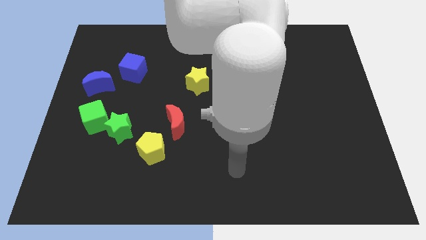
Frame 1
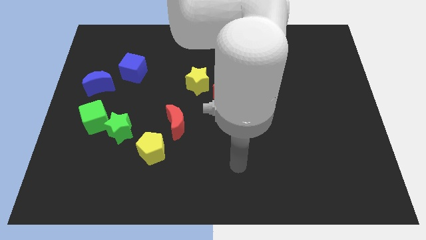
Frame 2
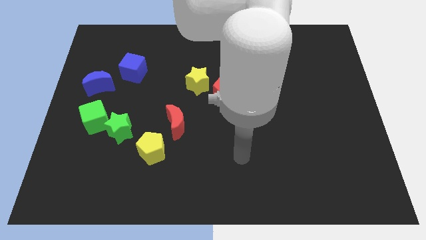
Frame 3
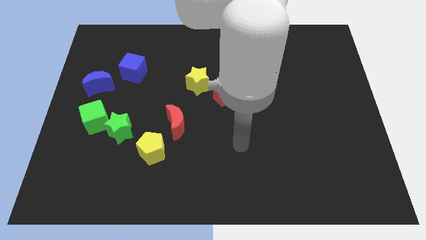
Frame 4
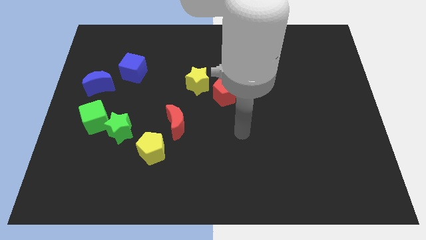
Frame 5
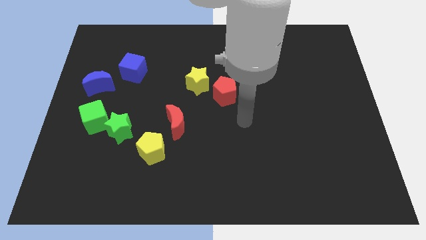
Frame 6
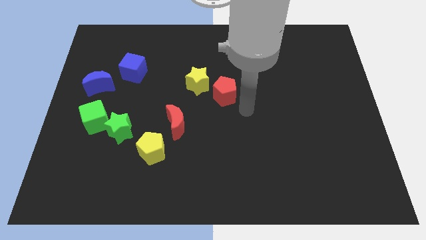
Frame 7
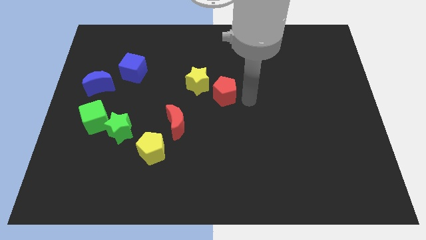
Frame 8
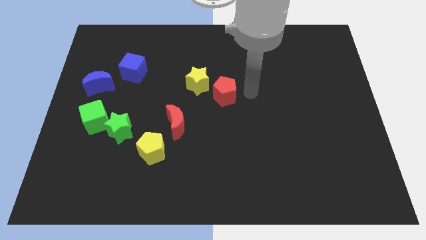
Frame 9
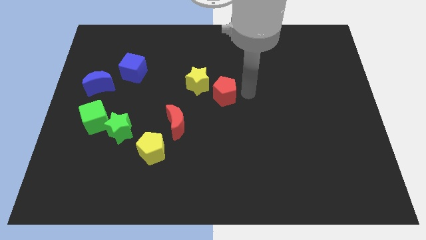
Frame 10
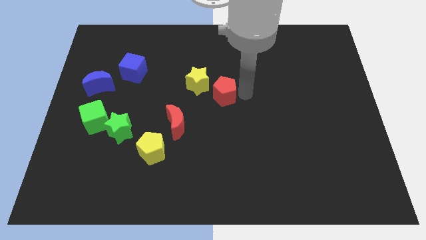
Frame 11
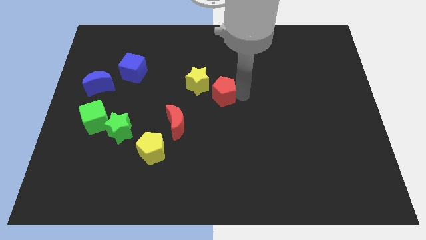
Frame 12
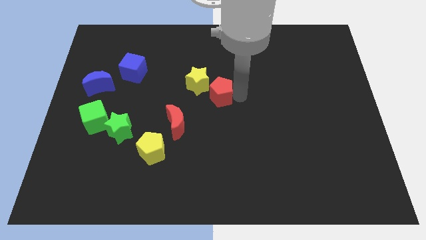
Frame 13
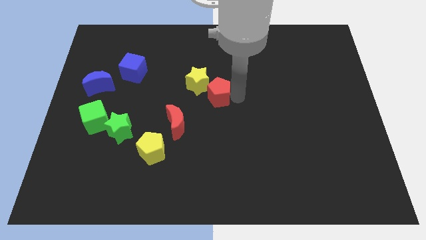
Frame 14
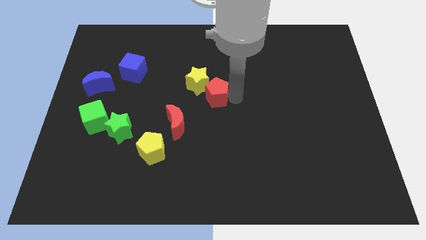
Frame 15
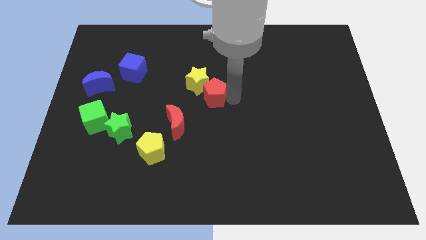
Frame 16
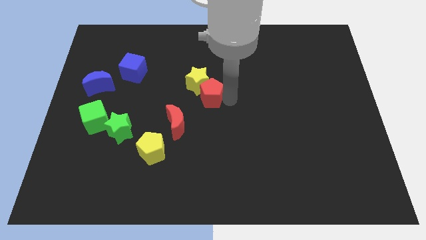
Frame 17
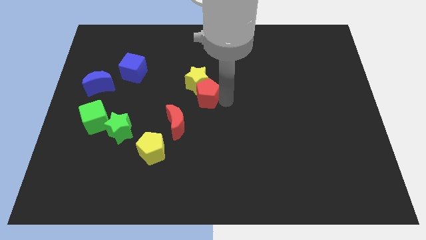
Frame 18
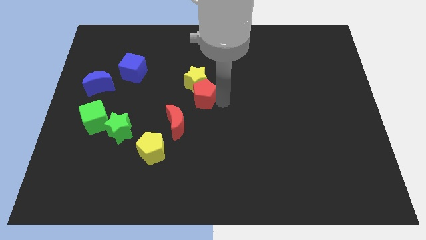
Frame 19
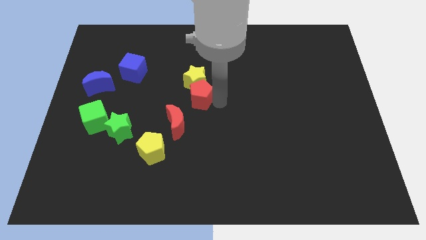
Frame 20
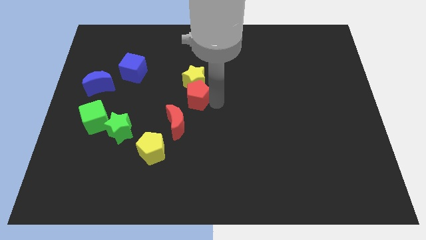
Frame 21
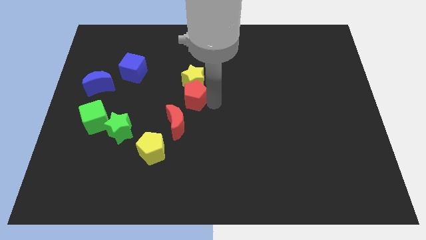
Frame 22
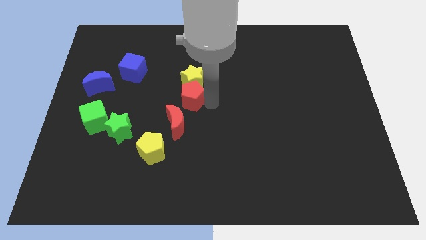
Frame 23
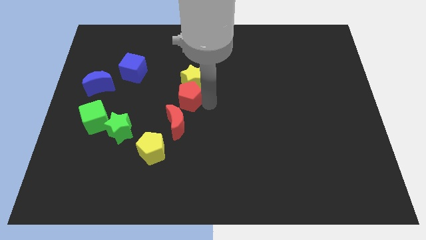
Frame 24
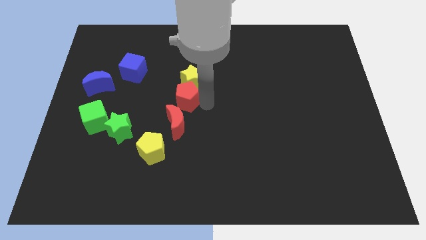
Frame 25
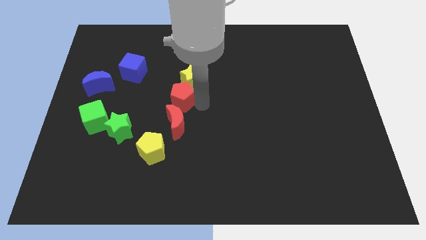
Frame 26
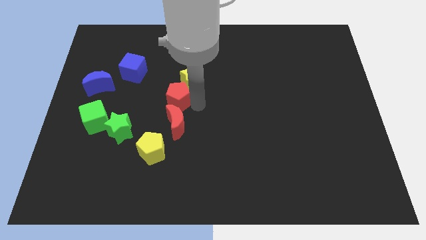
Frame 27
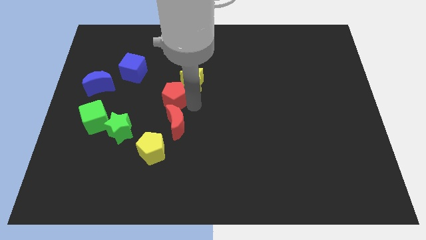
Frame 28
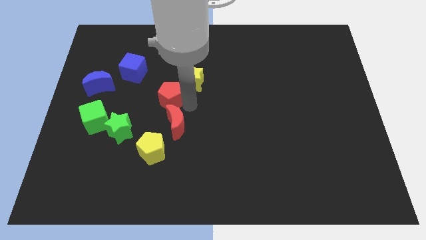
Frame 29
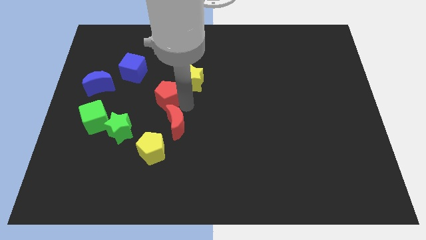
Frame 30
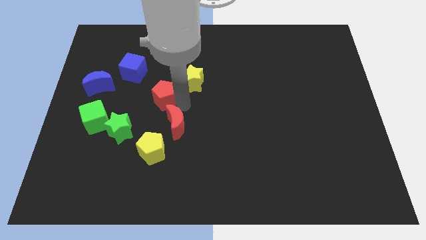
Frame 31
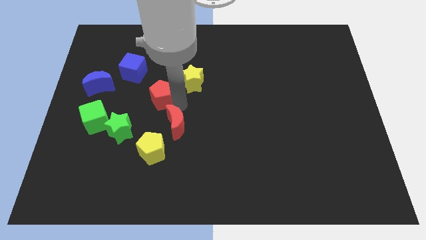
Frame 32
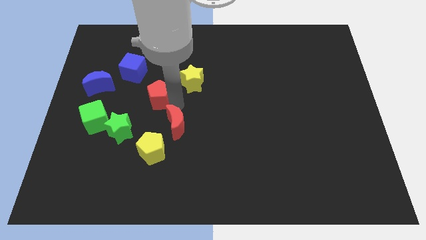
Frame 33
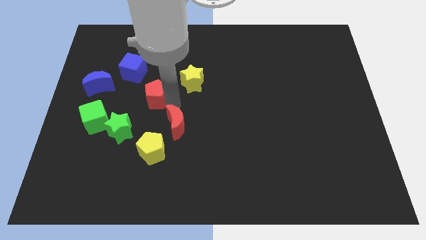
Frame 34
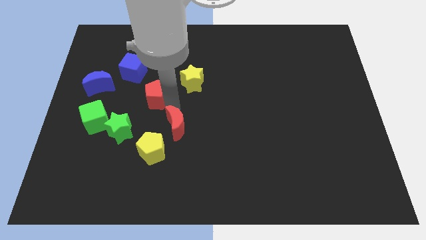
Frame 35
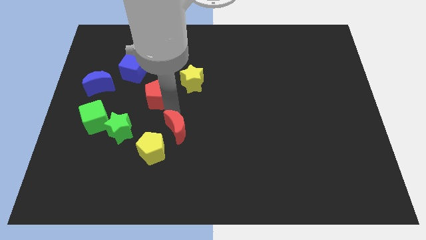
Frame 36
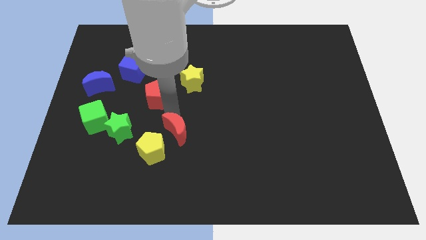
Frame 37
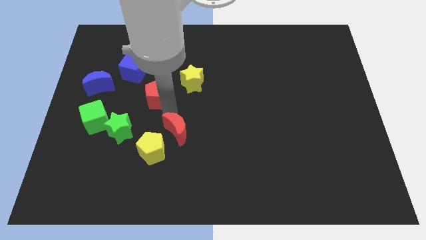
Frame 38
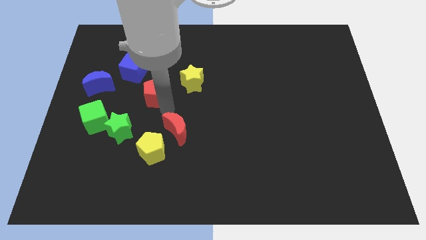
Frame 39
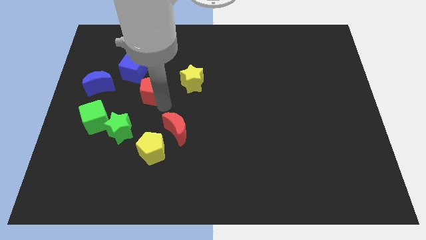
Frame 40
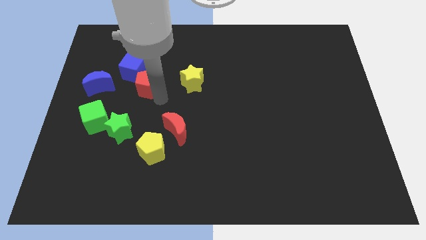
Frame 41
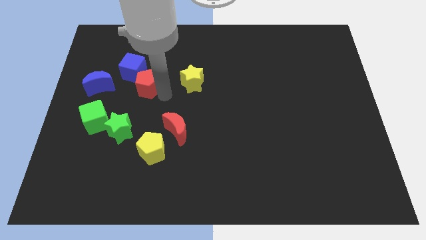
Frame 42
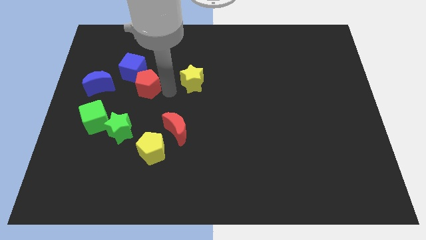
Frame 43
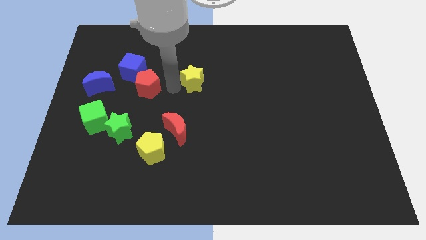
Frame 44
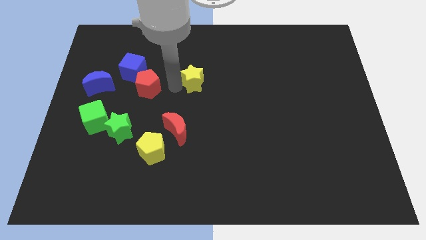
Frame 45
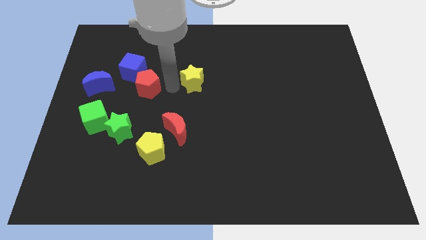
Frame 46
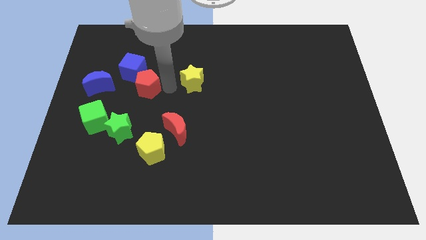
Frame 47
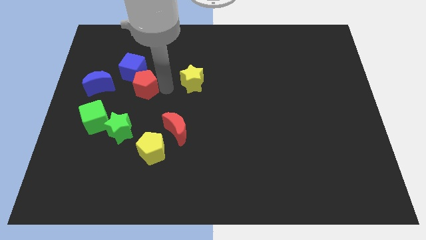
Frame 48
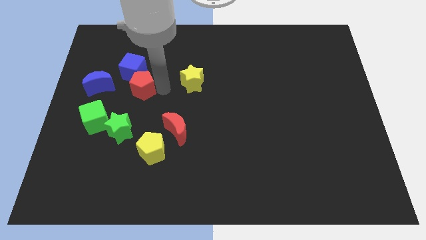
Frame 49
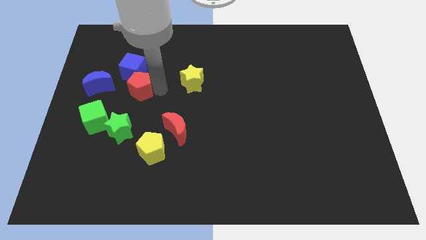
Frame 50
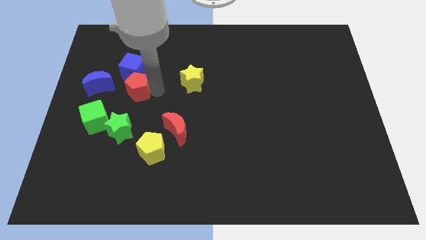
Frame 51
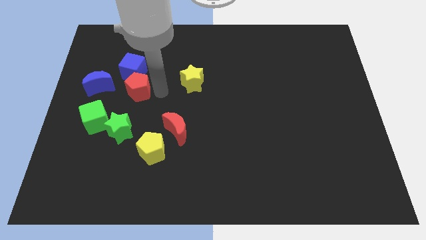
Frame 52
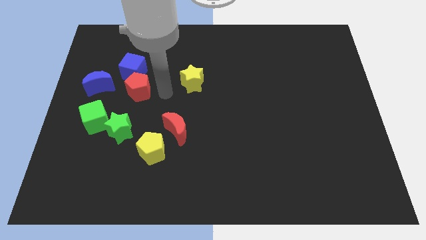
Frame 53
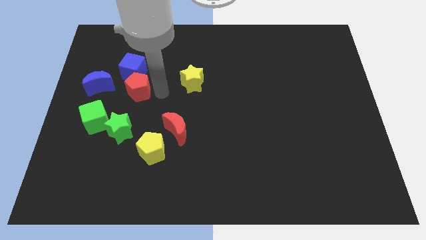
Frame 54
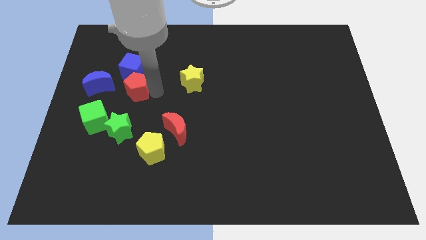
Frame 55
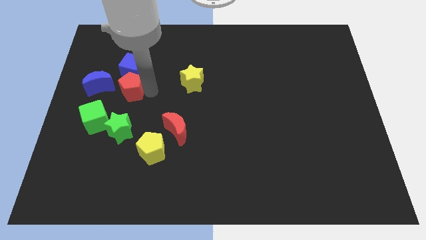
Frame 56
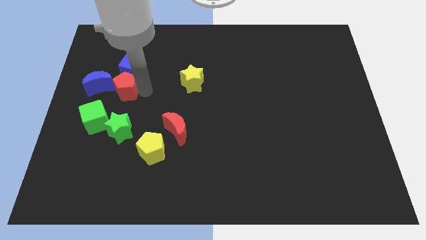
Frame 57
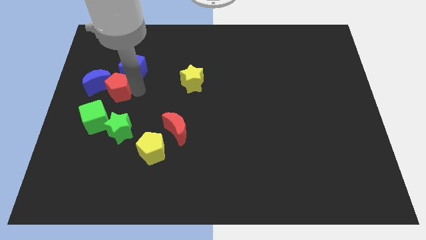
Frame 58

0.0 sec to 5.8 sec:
move the red pentagon next to the blue moon

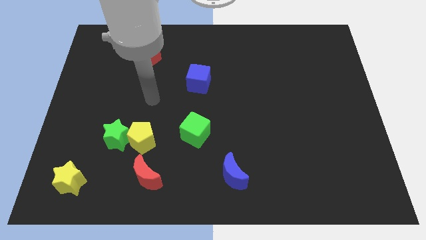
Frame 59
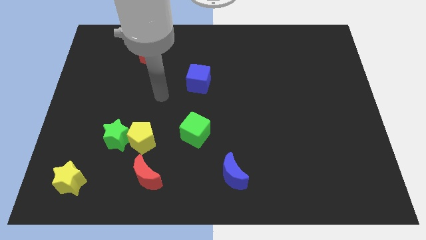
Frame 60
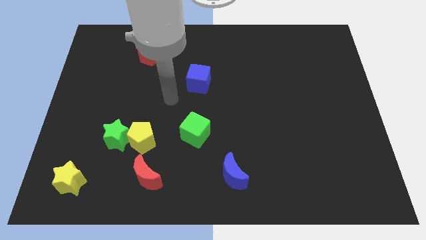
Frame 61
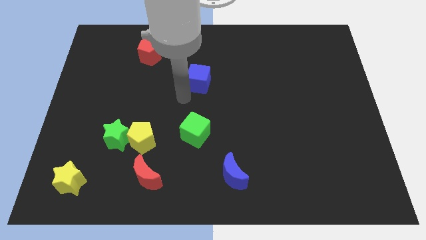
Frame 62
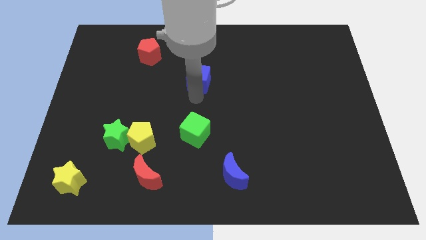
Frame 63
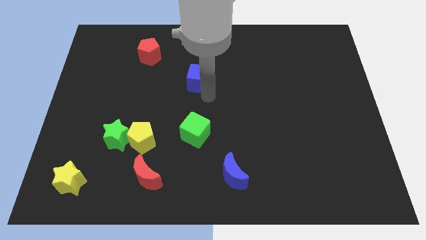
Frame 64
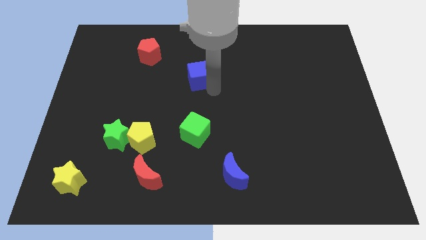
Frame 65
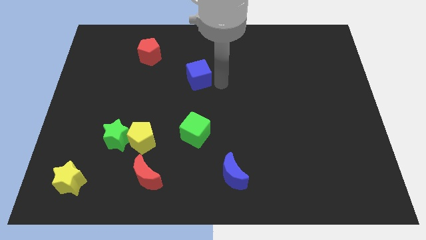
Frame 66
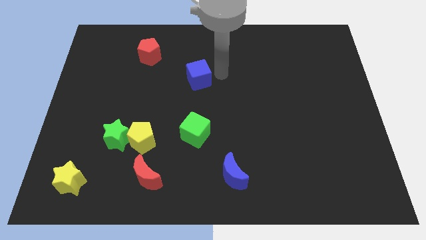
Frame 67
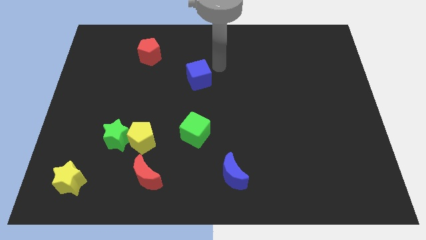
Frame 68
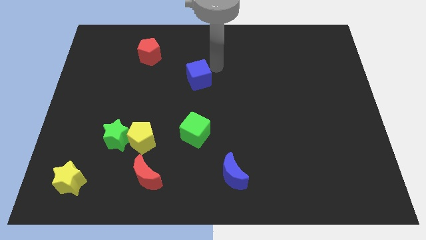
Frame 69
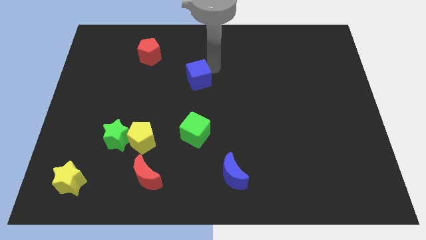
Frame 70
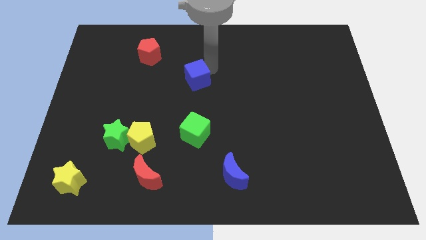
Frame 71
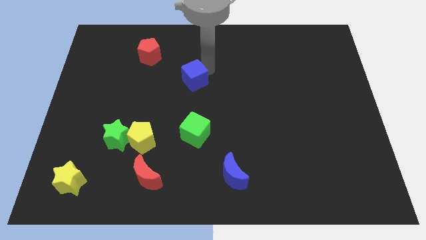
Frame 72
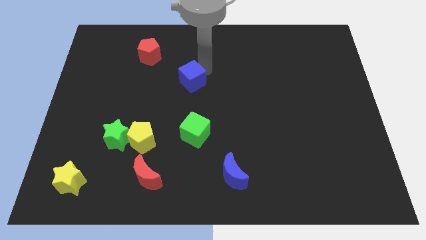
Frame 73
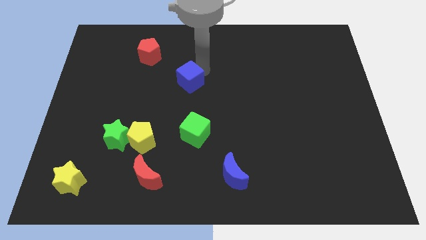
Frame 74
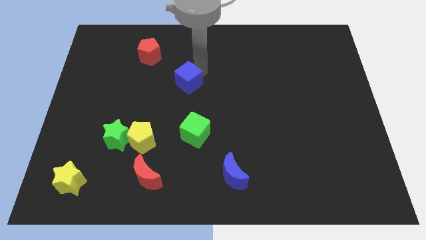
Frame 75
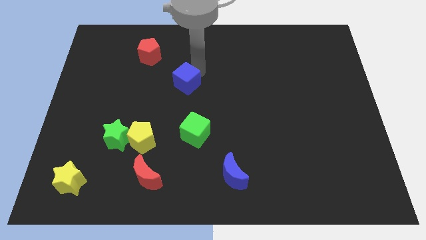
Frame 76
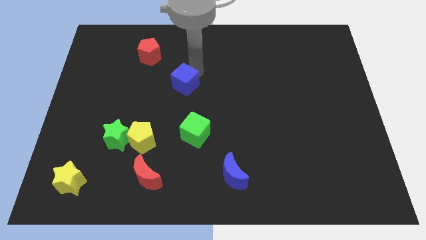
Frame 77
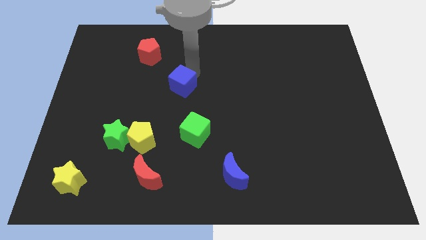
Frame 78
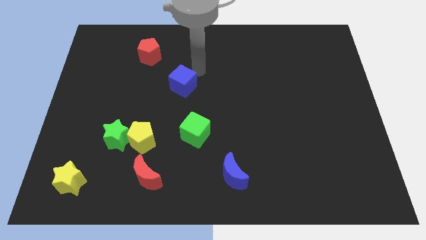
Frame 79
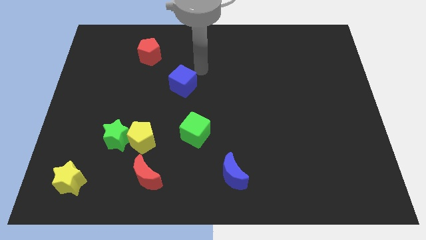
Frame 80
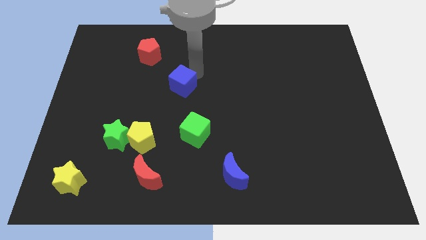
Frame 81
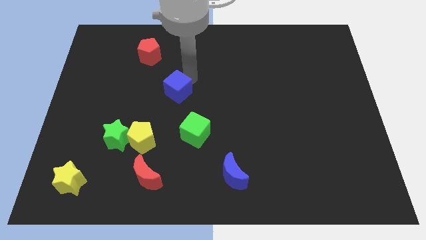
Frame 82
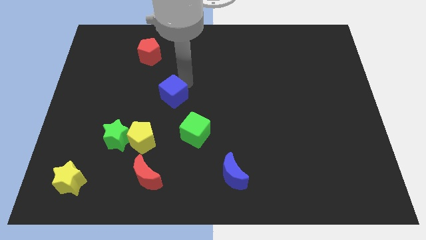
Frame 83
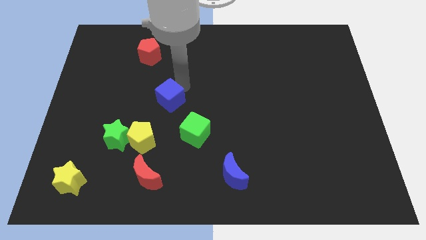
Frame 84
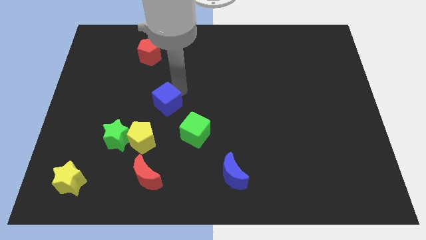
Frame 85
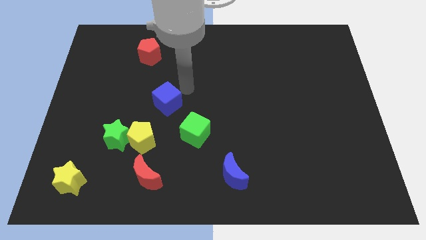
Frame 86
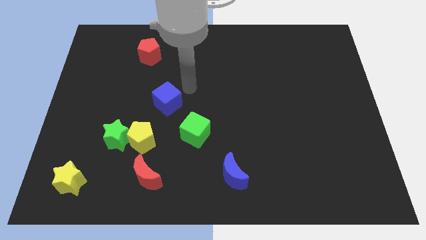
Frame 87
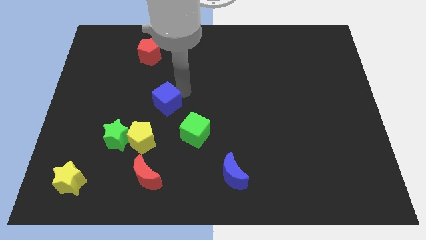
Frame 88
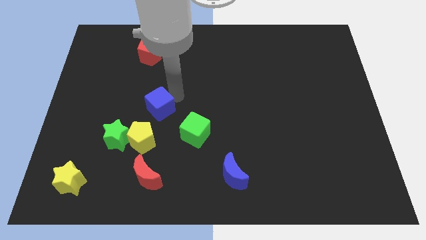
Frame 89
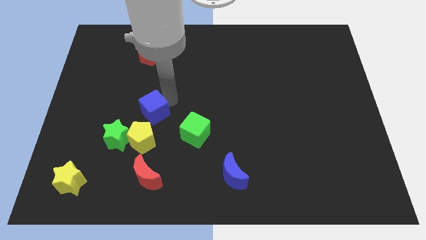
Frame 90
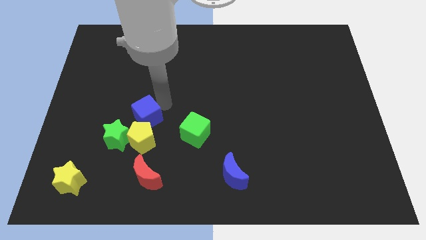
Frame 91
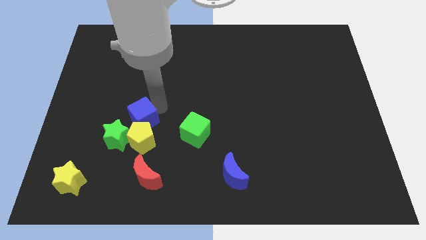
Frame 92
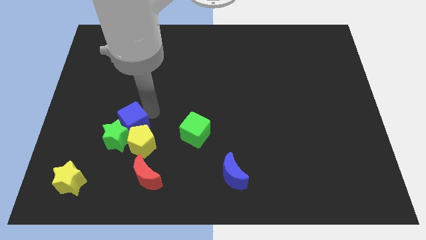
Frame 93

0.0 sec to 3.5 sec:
put the blue cube to the green star
